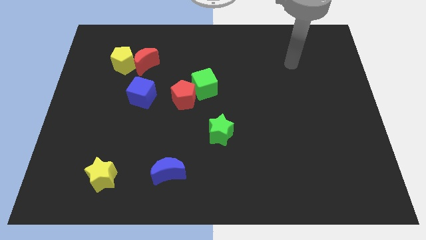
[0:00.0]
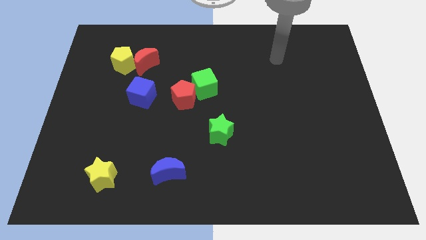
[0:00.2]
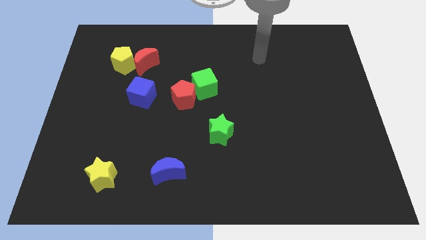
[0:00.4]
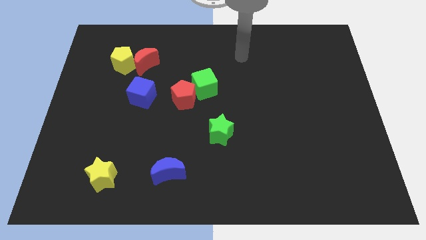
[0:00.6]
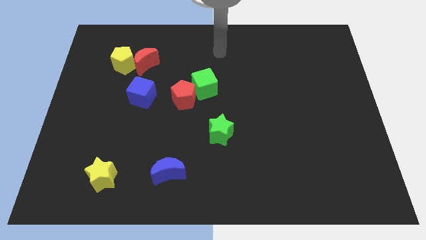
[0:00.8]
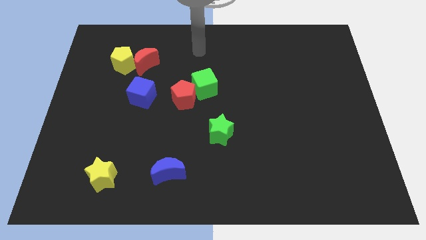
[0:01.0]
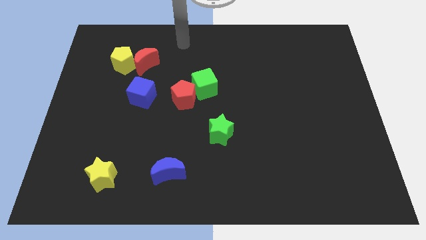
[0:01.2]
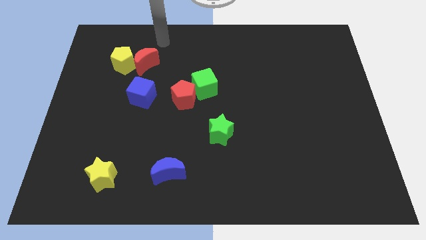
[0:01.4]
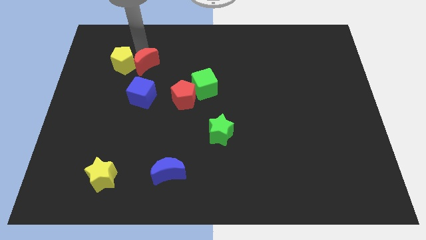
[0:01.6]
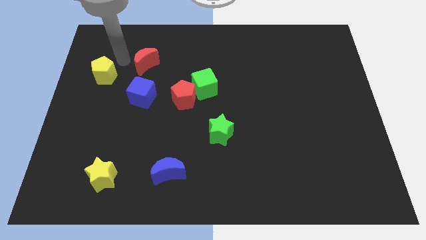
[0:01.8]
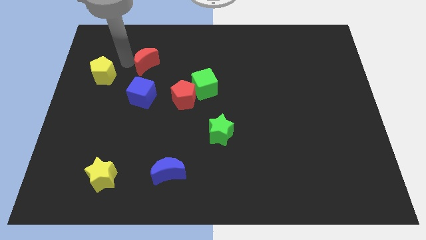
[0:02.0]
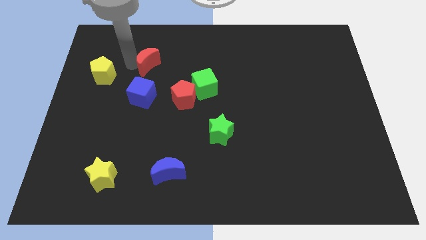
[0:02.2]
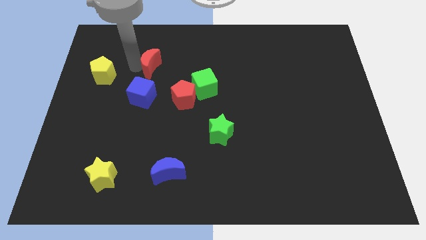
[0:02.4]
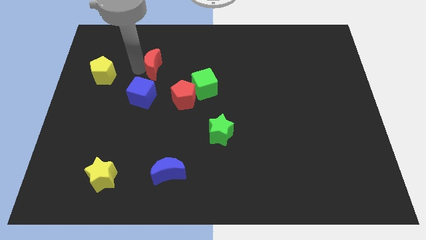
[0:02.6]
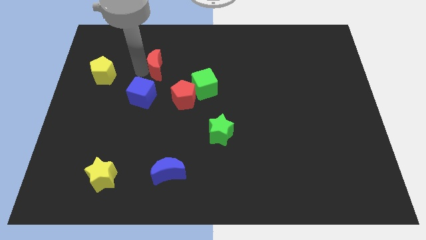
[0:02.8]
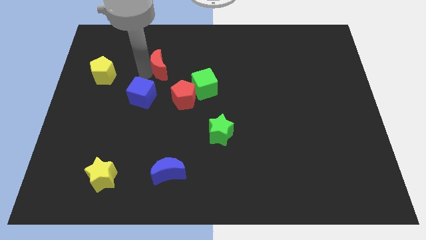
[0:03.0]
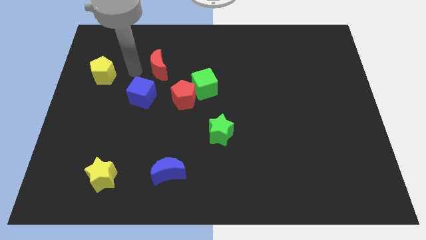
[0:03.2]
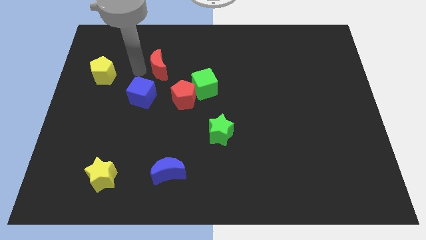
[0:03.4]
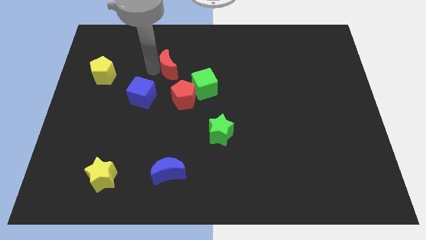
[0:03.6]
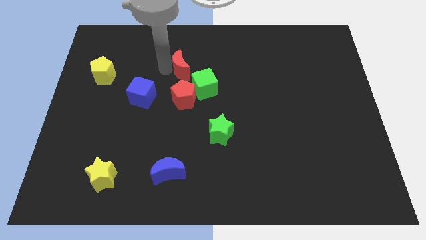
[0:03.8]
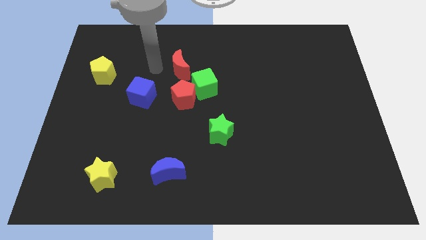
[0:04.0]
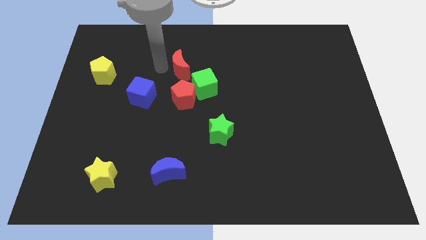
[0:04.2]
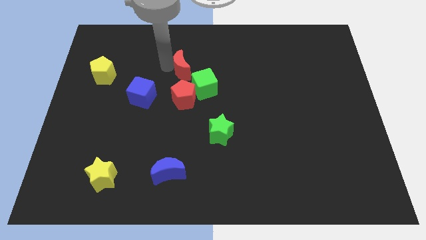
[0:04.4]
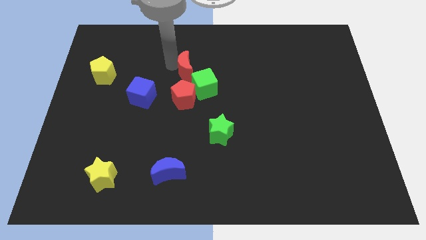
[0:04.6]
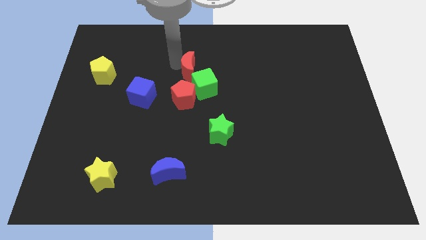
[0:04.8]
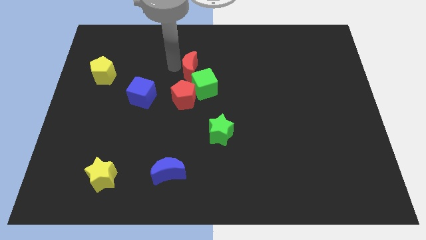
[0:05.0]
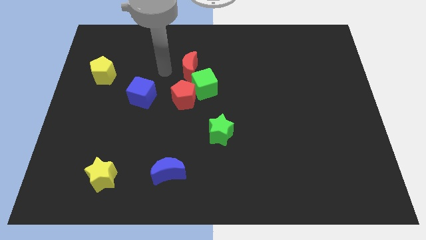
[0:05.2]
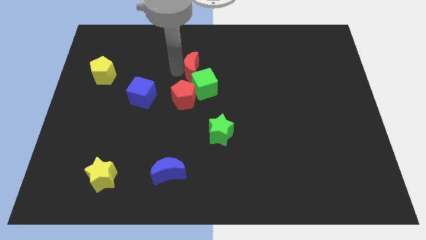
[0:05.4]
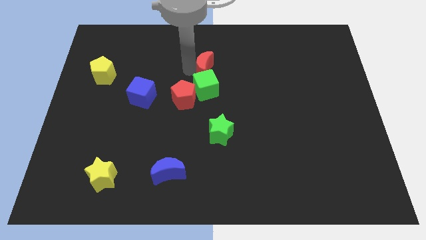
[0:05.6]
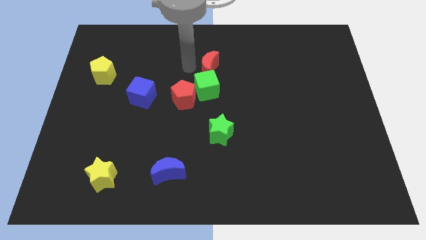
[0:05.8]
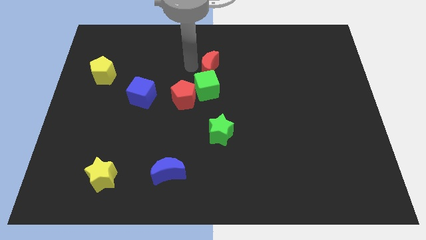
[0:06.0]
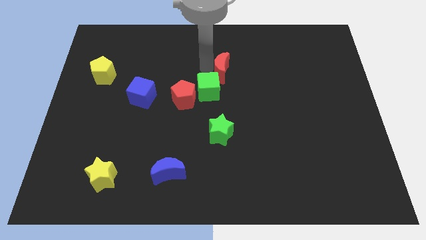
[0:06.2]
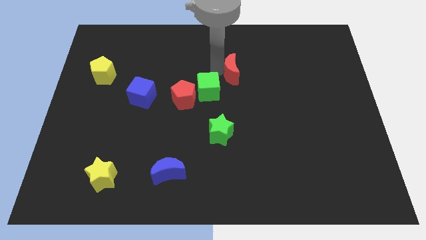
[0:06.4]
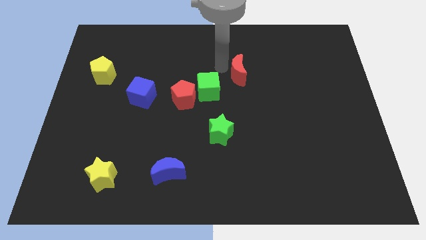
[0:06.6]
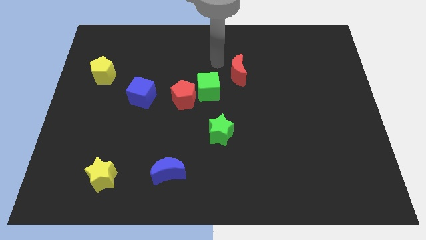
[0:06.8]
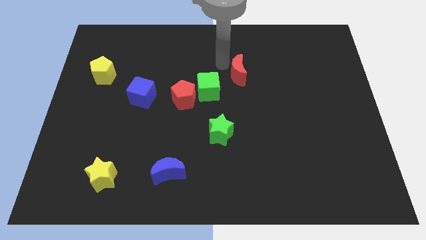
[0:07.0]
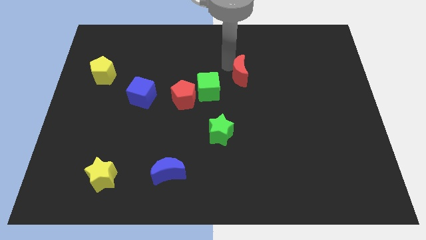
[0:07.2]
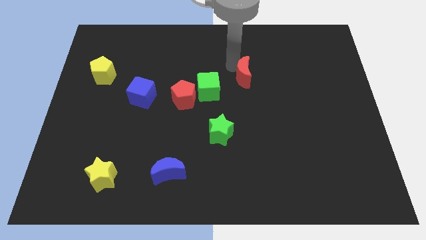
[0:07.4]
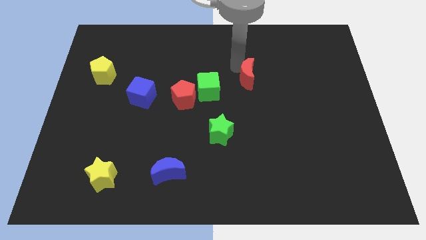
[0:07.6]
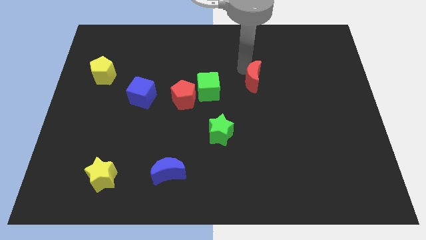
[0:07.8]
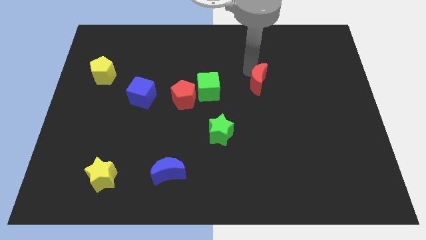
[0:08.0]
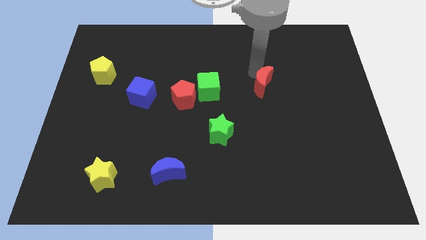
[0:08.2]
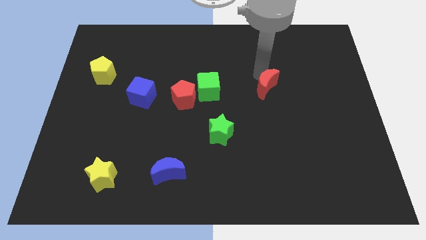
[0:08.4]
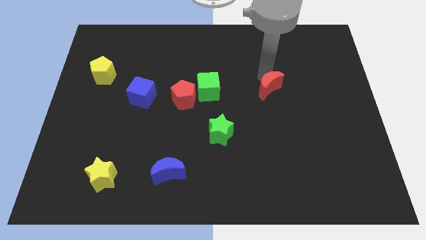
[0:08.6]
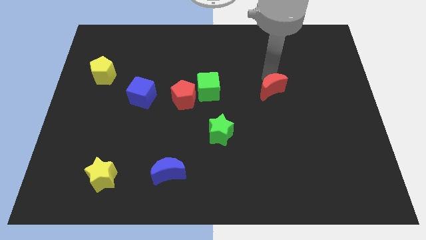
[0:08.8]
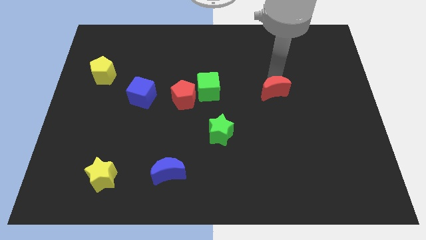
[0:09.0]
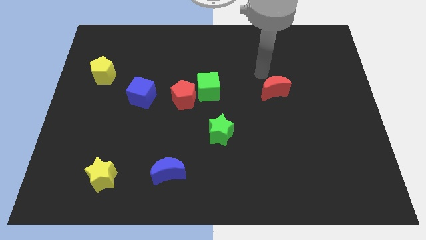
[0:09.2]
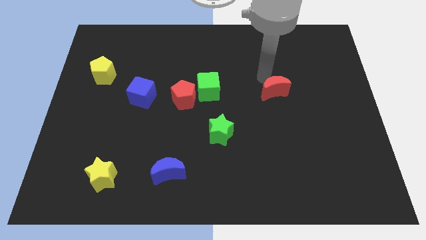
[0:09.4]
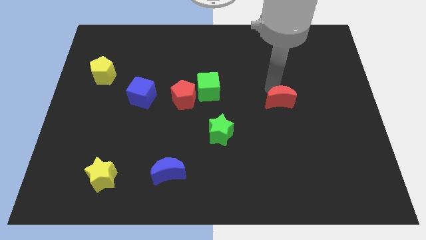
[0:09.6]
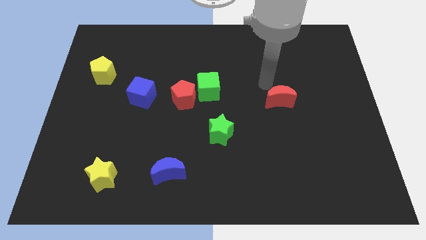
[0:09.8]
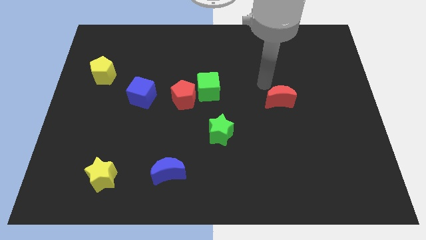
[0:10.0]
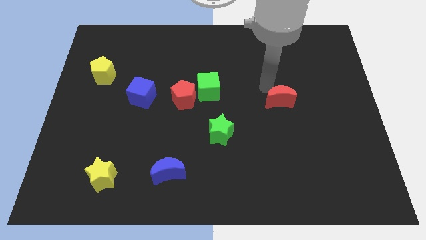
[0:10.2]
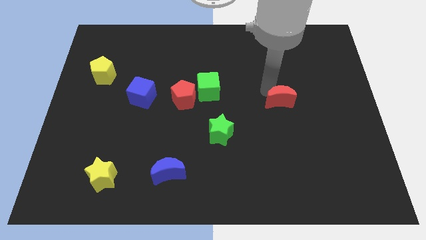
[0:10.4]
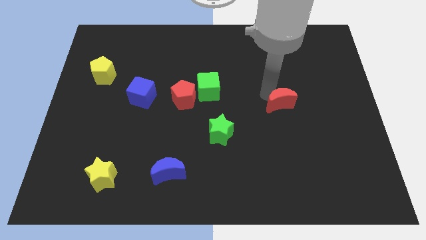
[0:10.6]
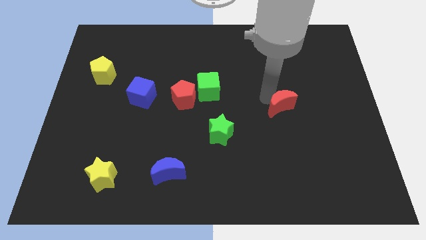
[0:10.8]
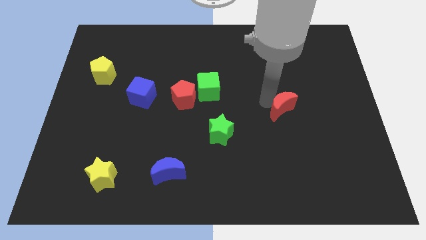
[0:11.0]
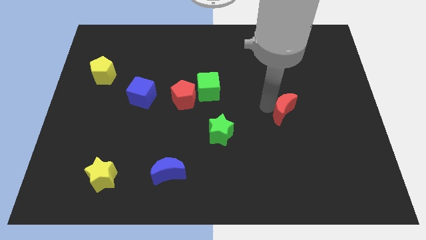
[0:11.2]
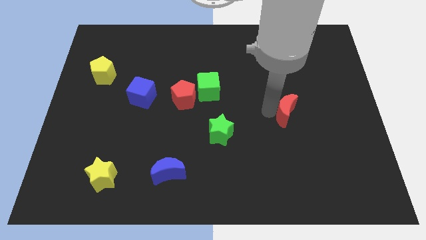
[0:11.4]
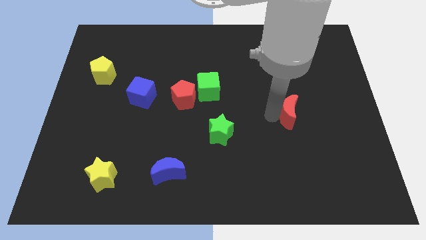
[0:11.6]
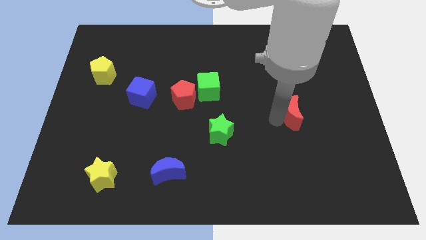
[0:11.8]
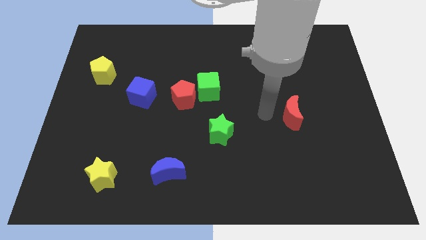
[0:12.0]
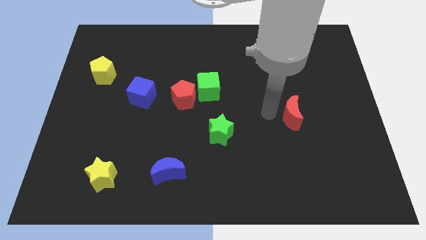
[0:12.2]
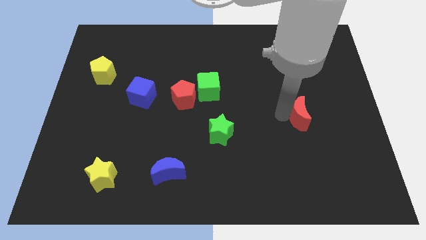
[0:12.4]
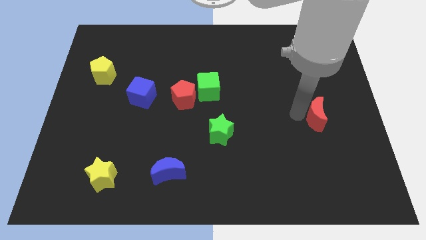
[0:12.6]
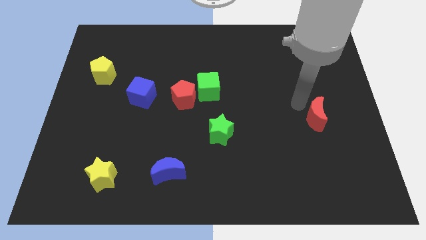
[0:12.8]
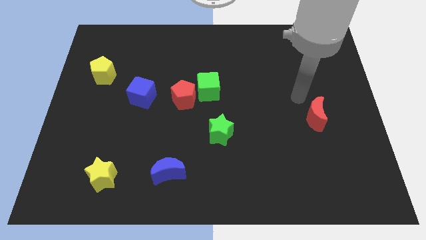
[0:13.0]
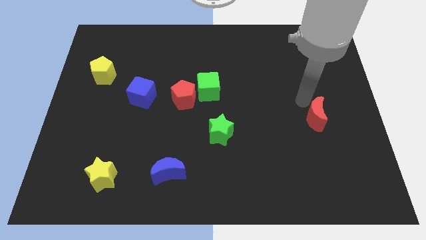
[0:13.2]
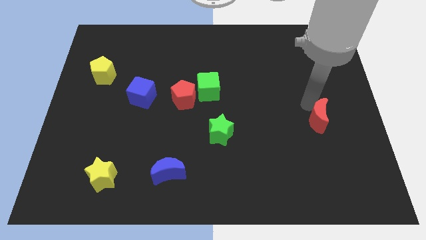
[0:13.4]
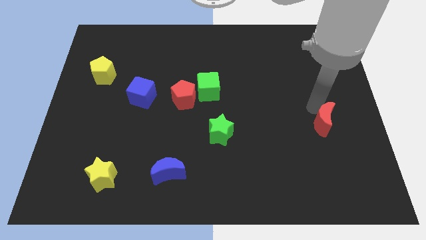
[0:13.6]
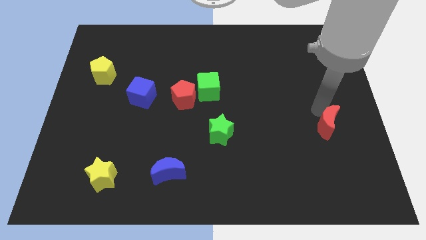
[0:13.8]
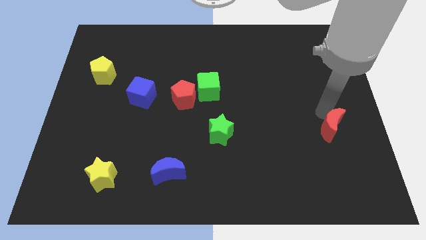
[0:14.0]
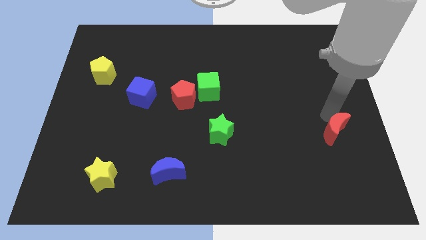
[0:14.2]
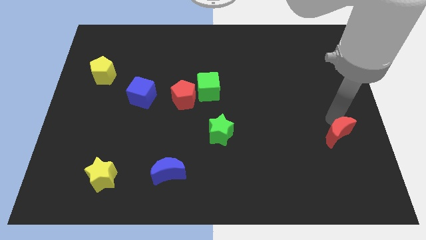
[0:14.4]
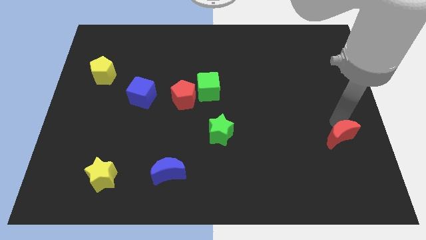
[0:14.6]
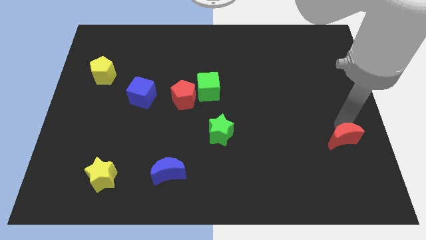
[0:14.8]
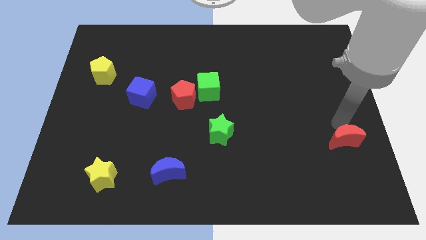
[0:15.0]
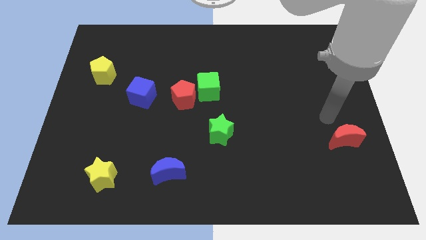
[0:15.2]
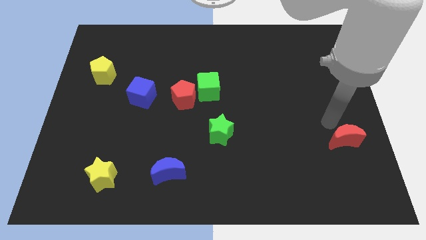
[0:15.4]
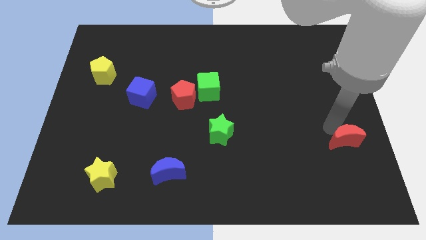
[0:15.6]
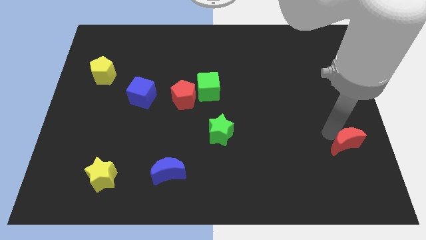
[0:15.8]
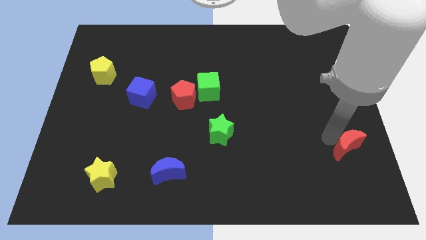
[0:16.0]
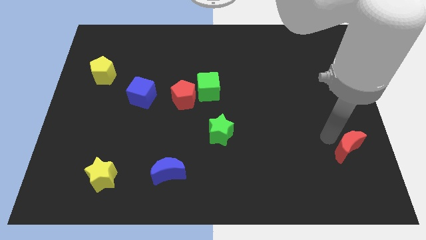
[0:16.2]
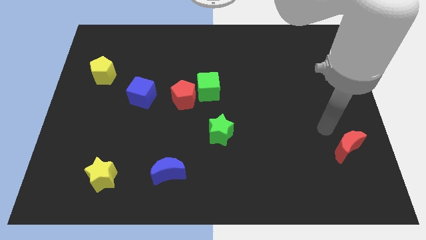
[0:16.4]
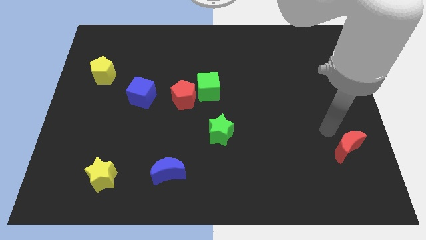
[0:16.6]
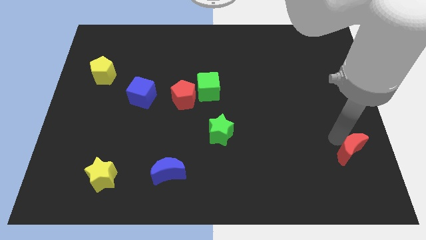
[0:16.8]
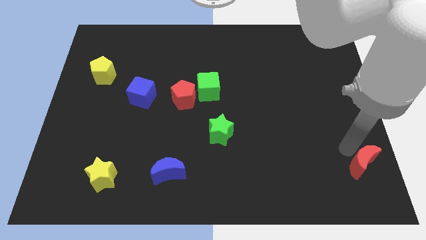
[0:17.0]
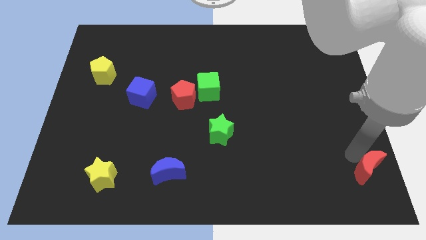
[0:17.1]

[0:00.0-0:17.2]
move the red moon to the bottom right of the board
